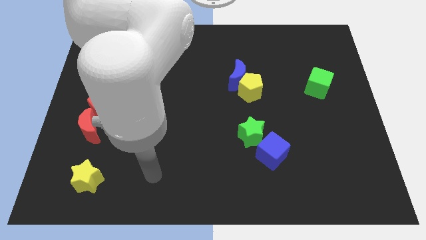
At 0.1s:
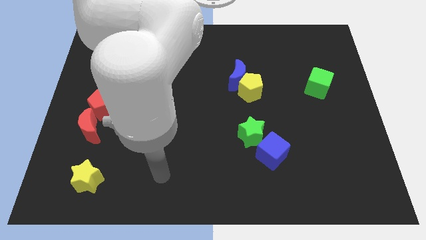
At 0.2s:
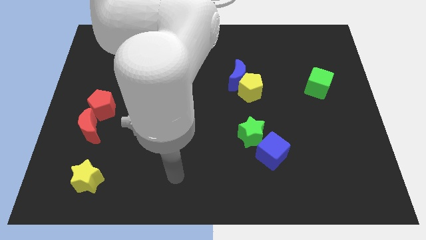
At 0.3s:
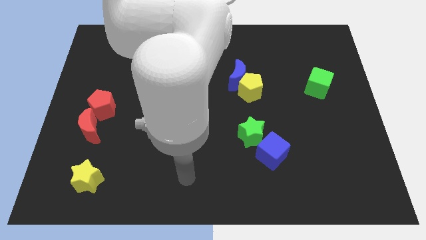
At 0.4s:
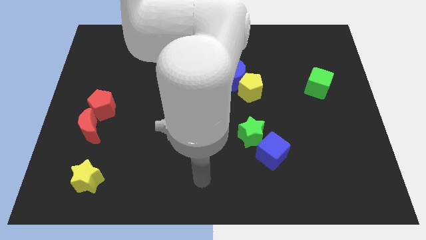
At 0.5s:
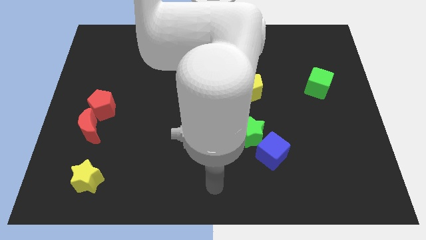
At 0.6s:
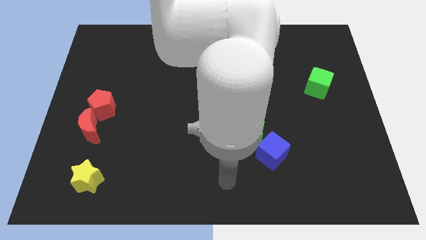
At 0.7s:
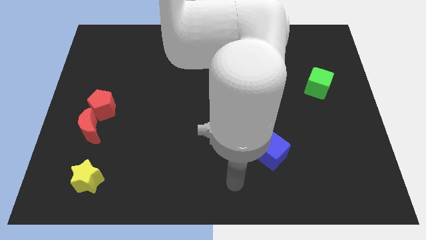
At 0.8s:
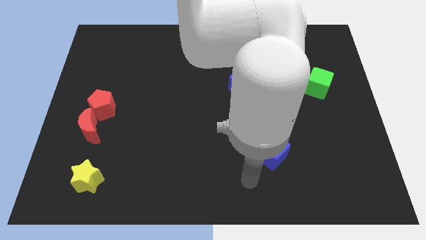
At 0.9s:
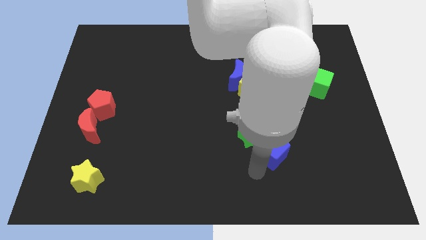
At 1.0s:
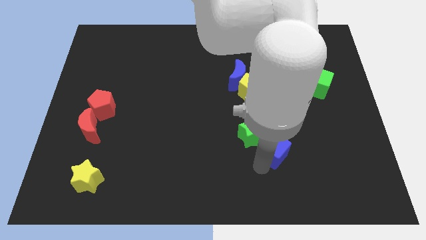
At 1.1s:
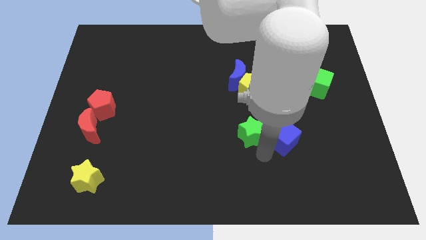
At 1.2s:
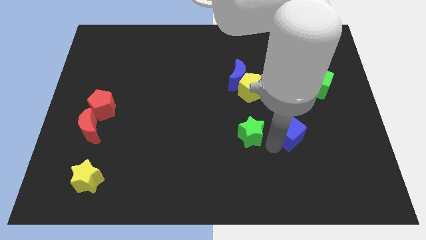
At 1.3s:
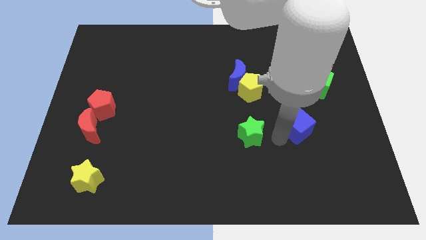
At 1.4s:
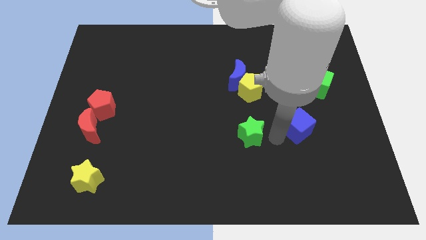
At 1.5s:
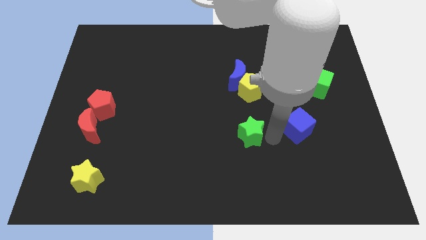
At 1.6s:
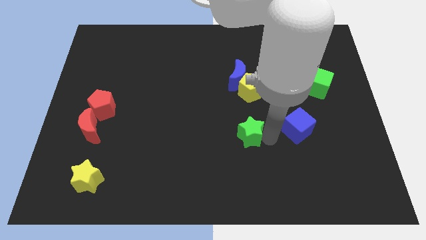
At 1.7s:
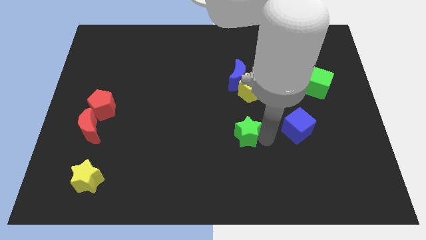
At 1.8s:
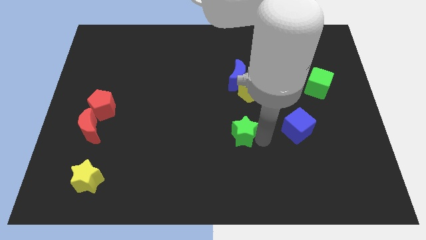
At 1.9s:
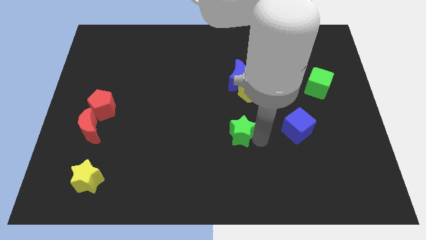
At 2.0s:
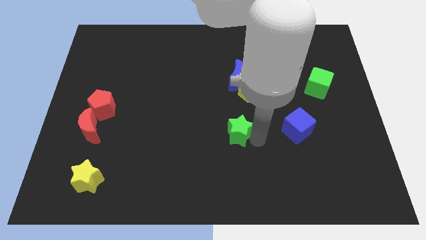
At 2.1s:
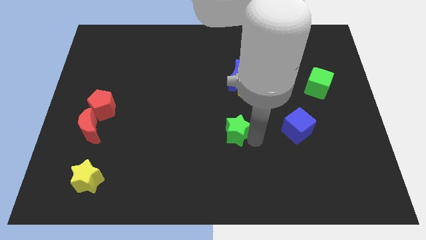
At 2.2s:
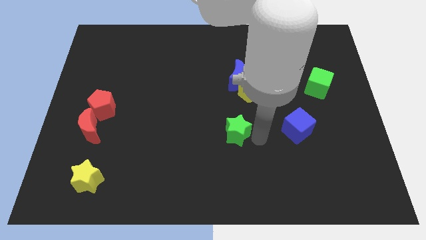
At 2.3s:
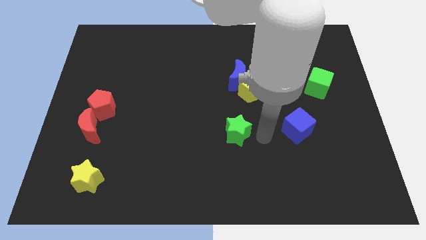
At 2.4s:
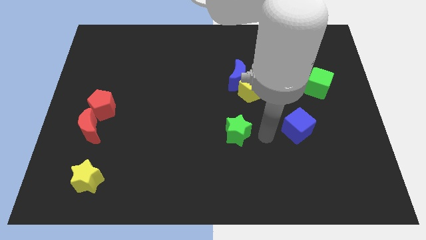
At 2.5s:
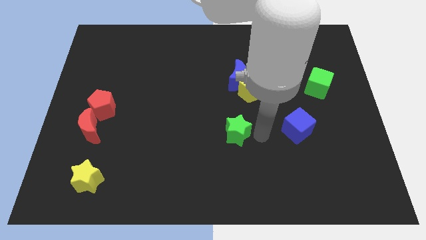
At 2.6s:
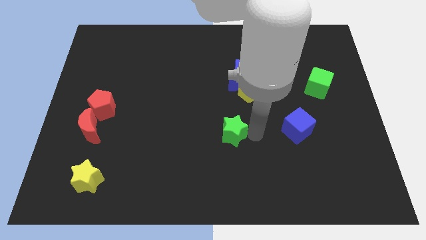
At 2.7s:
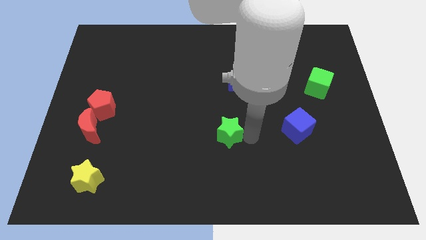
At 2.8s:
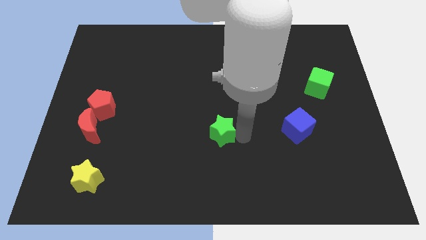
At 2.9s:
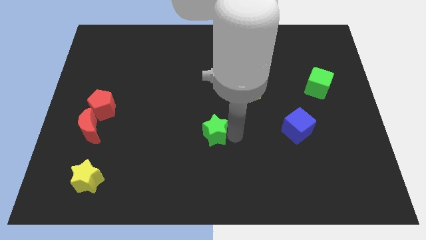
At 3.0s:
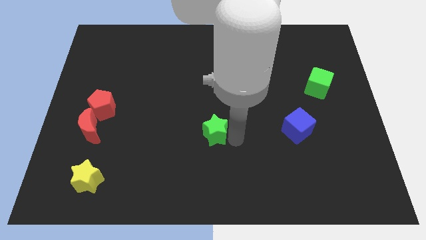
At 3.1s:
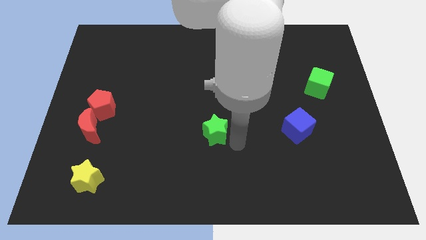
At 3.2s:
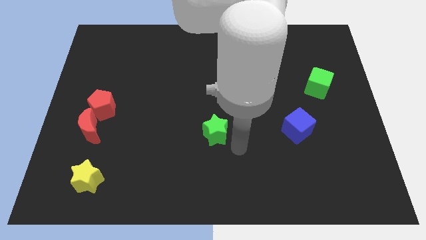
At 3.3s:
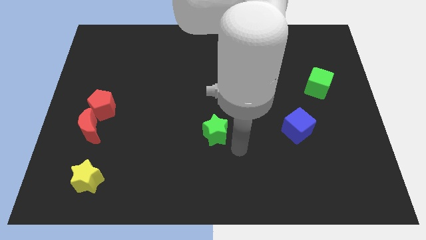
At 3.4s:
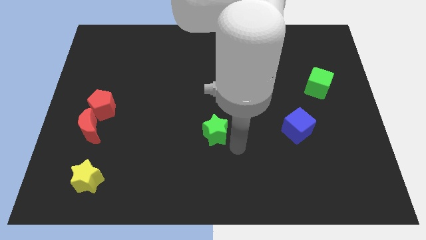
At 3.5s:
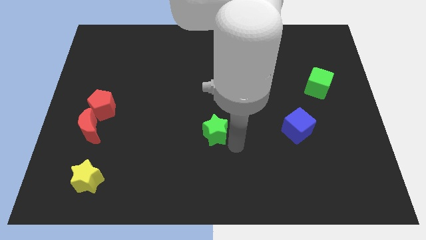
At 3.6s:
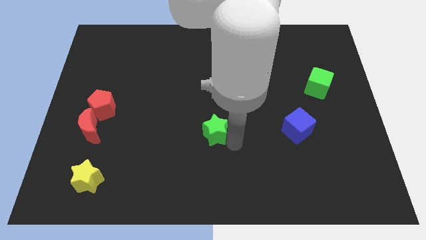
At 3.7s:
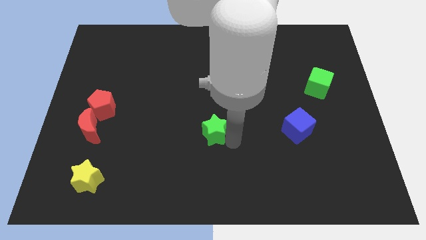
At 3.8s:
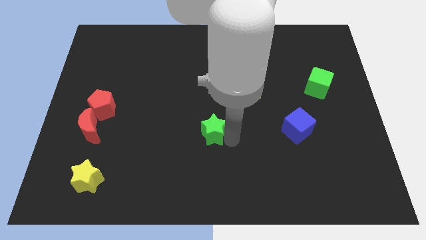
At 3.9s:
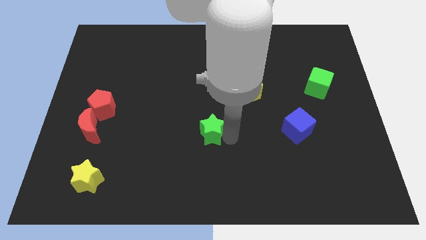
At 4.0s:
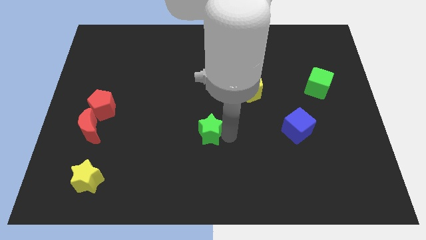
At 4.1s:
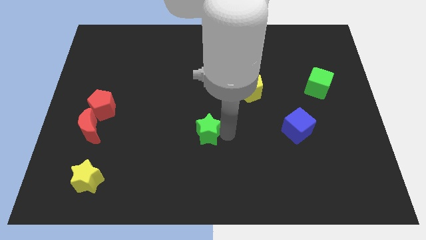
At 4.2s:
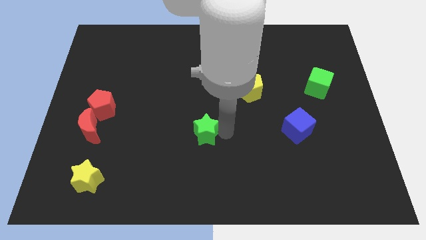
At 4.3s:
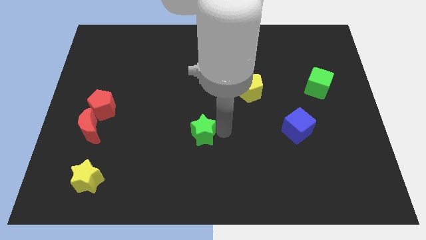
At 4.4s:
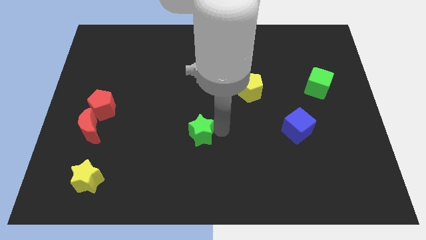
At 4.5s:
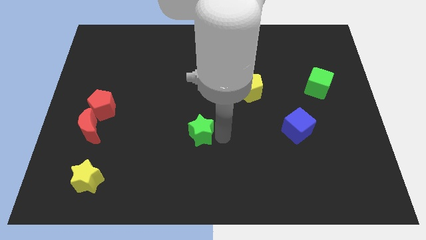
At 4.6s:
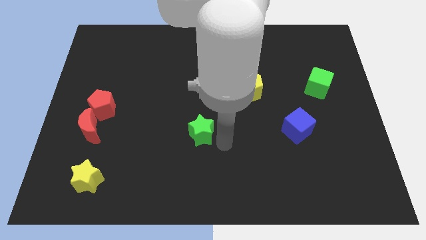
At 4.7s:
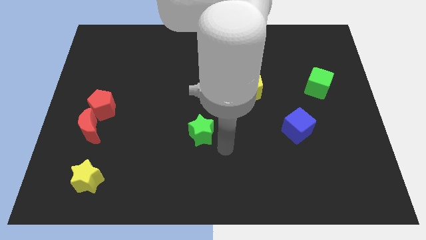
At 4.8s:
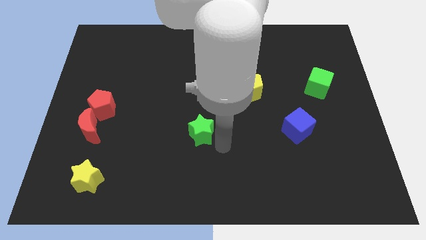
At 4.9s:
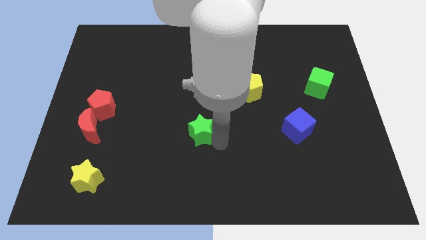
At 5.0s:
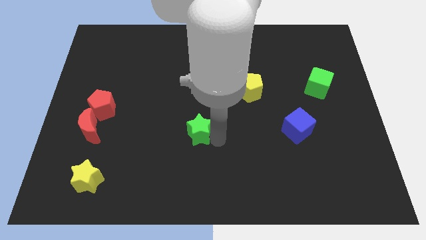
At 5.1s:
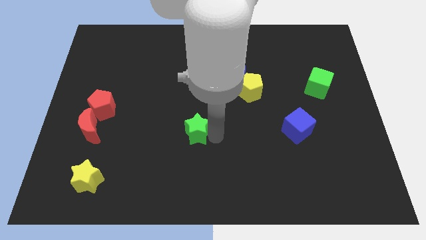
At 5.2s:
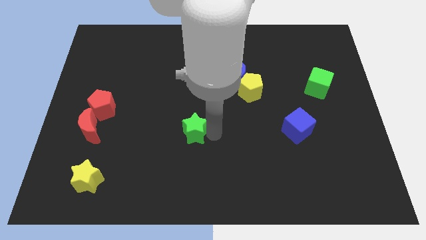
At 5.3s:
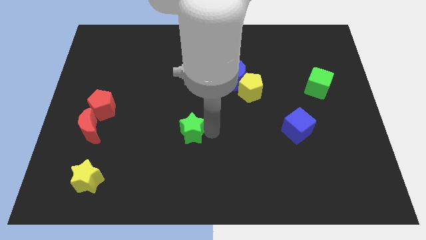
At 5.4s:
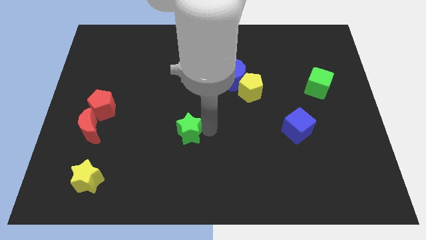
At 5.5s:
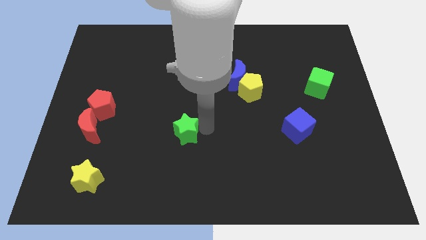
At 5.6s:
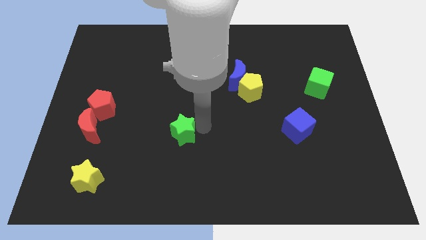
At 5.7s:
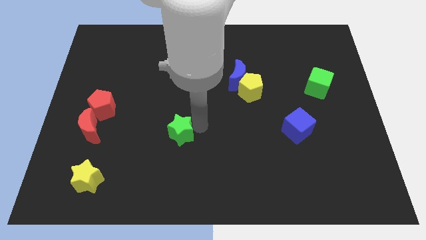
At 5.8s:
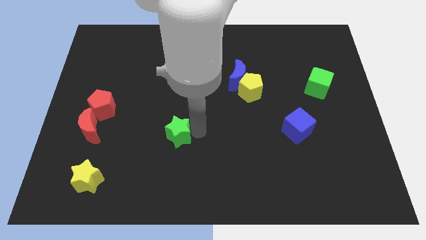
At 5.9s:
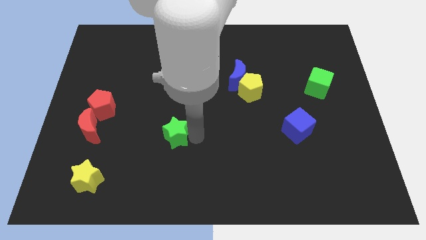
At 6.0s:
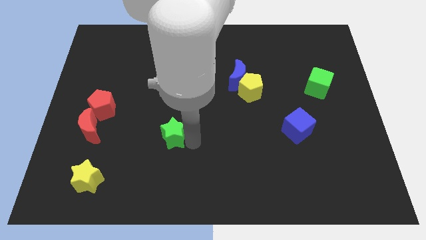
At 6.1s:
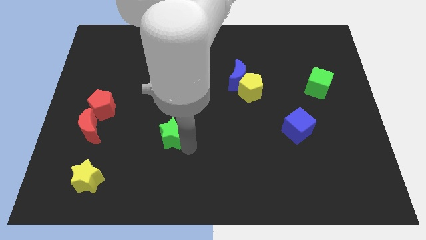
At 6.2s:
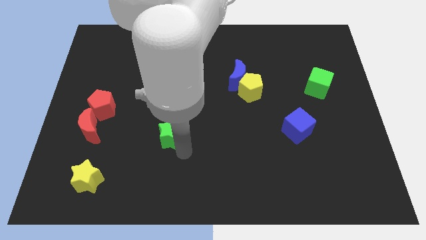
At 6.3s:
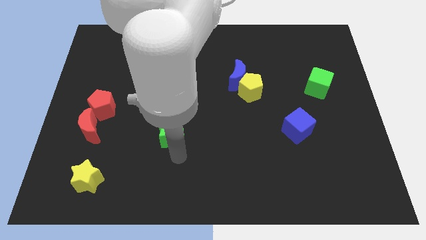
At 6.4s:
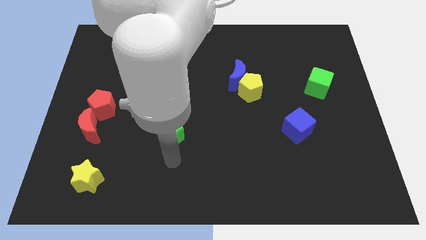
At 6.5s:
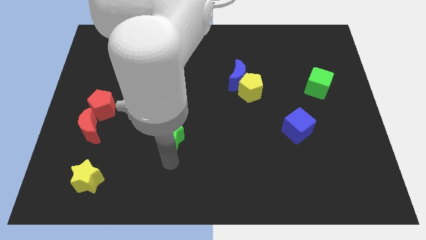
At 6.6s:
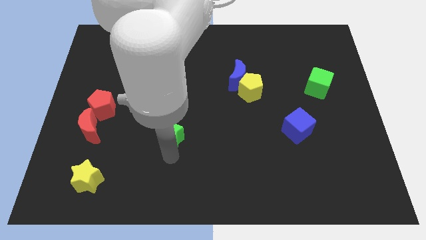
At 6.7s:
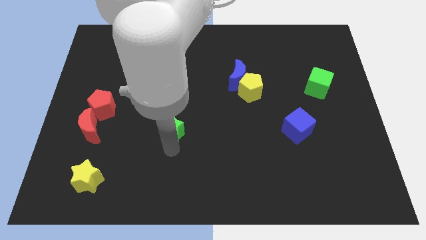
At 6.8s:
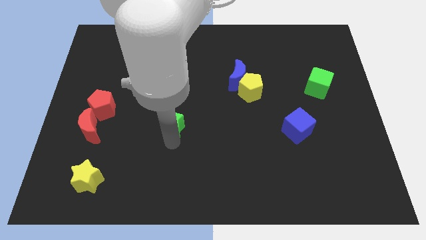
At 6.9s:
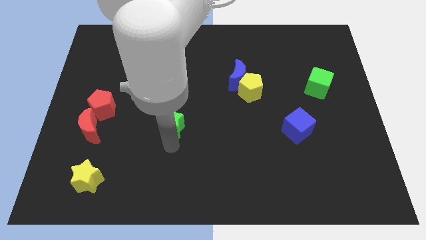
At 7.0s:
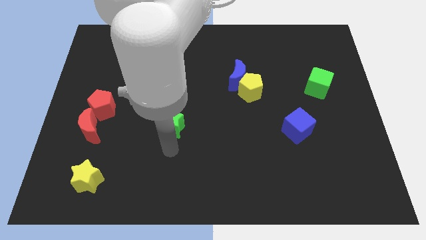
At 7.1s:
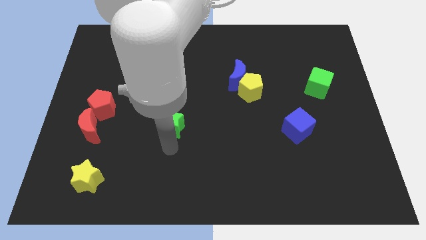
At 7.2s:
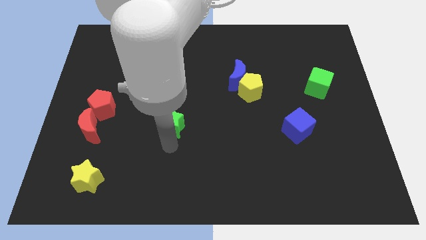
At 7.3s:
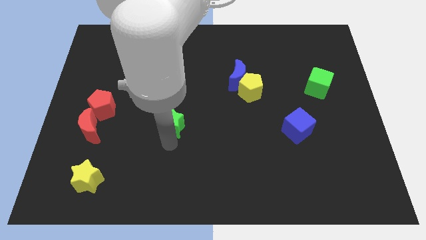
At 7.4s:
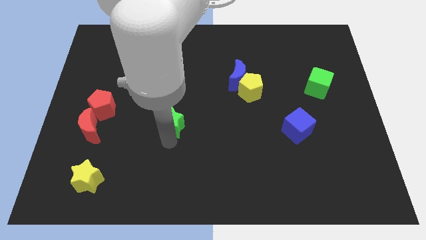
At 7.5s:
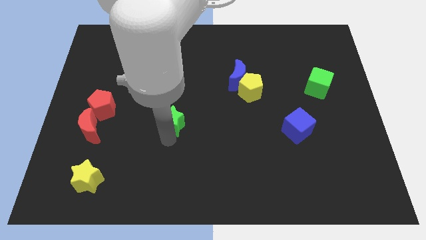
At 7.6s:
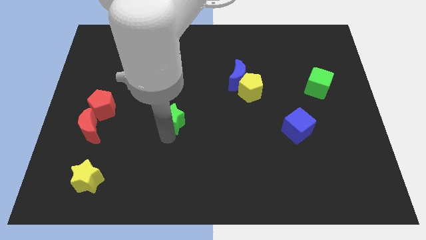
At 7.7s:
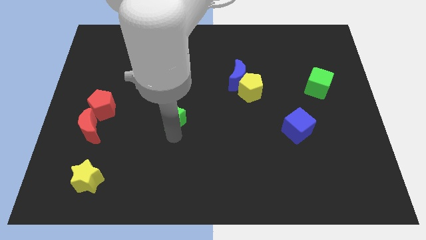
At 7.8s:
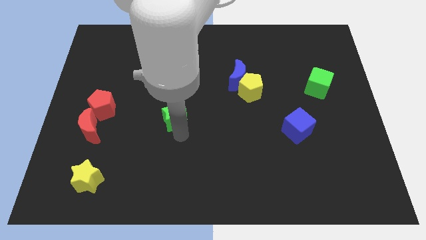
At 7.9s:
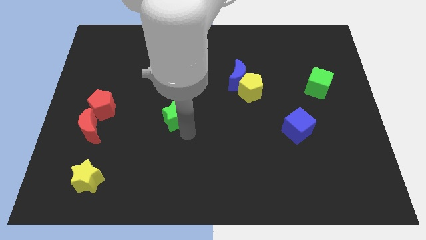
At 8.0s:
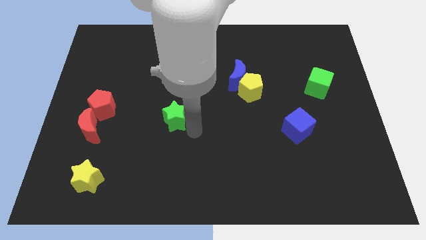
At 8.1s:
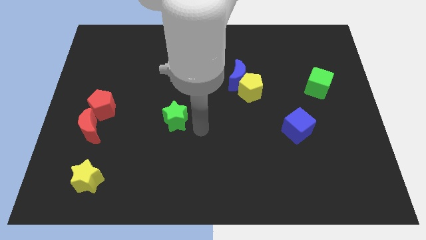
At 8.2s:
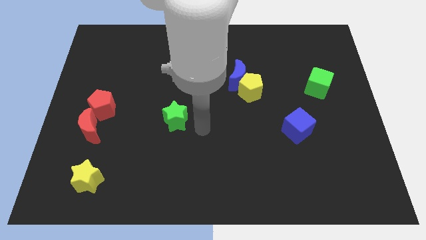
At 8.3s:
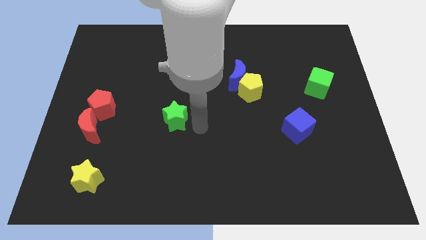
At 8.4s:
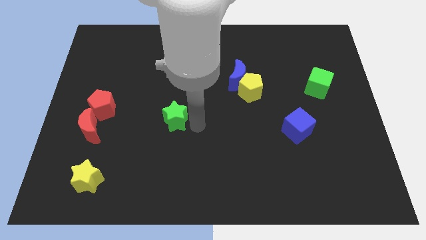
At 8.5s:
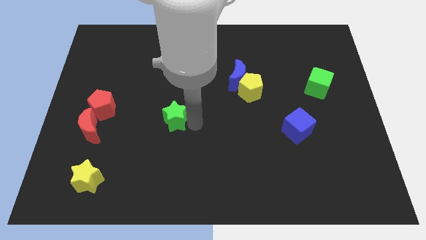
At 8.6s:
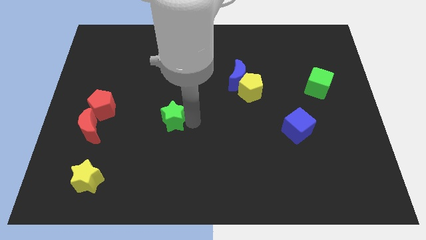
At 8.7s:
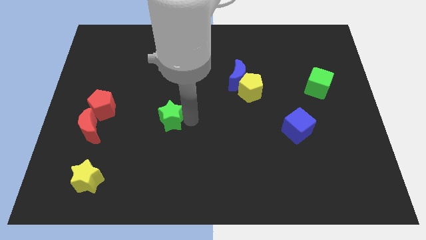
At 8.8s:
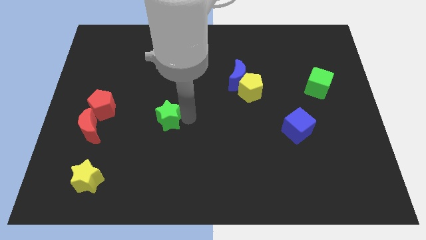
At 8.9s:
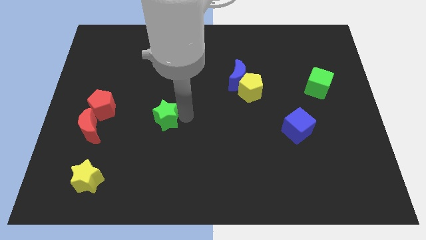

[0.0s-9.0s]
put the green star right of the red pentagon
